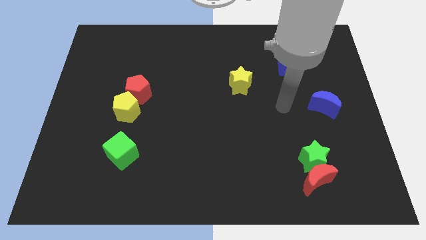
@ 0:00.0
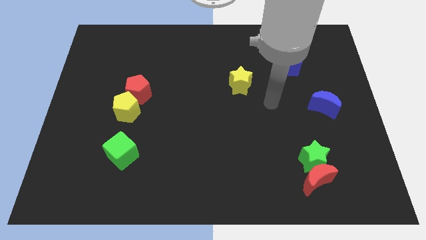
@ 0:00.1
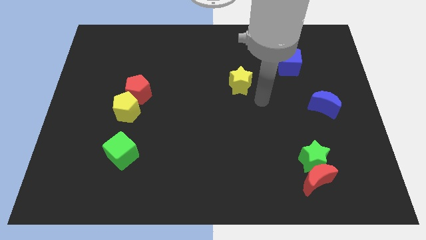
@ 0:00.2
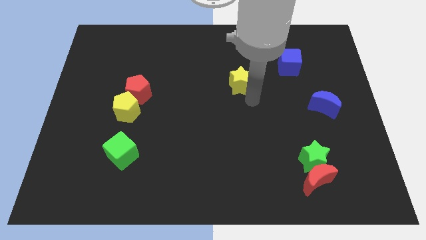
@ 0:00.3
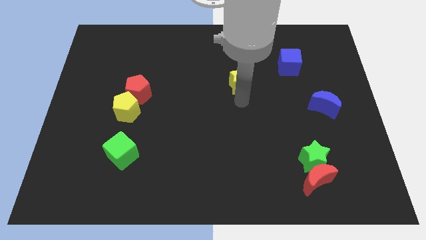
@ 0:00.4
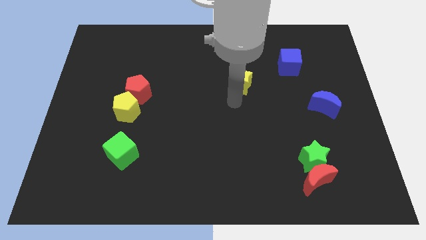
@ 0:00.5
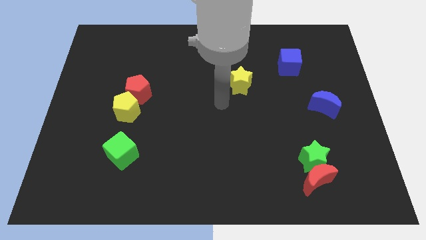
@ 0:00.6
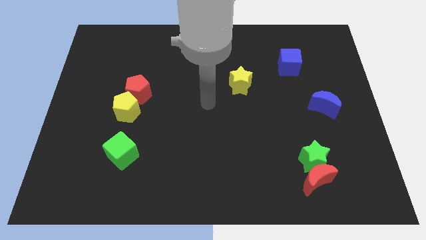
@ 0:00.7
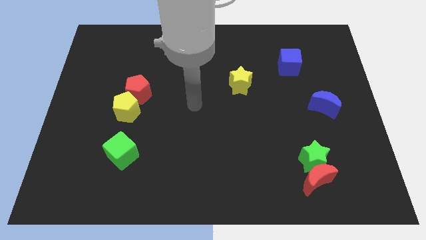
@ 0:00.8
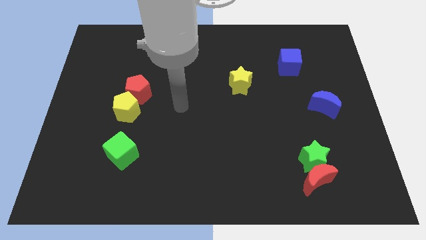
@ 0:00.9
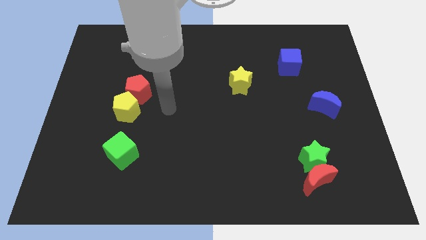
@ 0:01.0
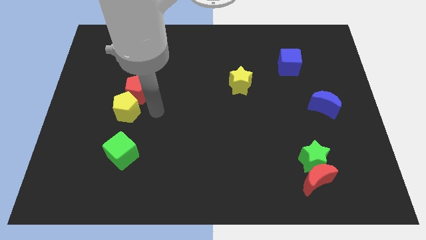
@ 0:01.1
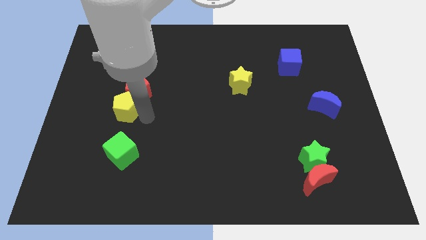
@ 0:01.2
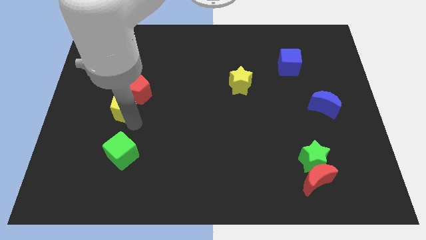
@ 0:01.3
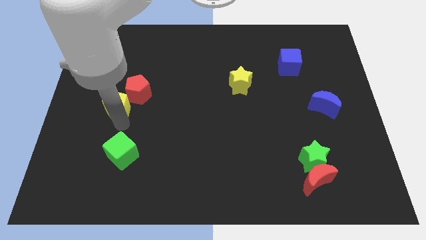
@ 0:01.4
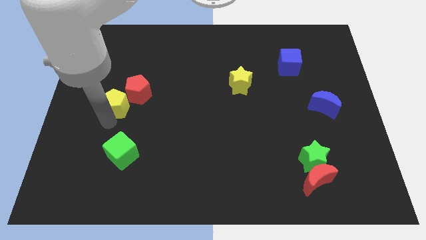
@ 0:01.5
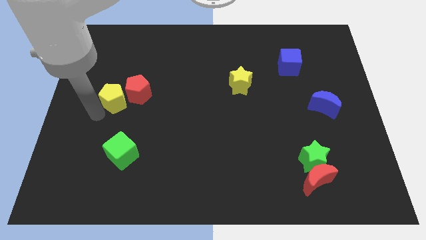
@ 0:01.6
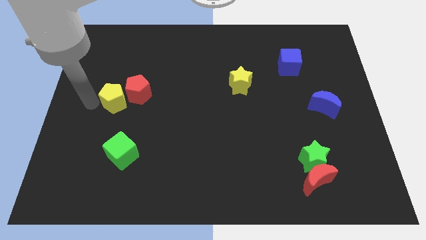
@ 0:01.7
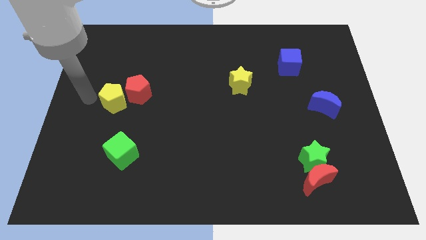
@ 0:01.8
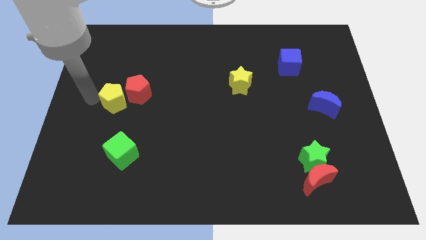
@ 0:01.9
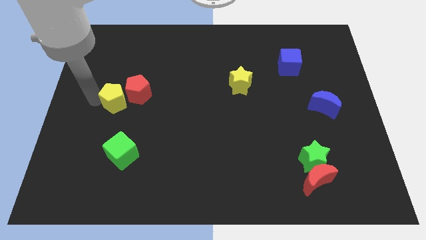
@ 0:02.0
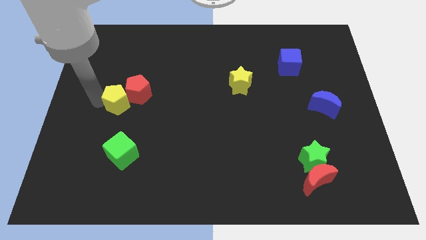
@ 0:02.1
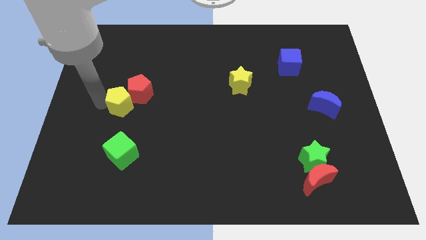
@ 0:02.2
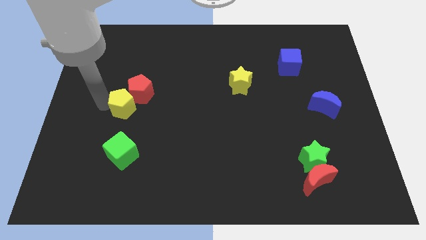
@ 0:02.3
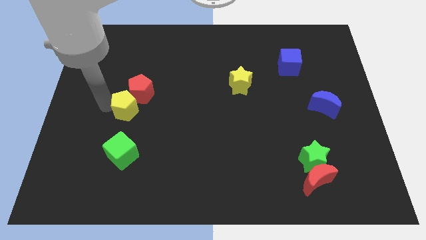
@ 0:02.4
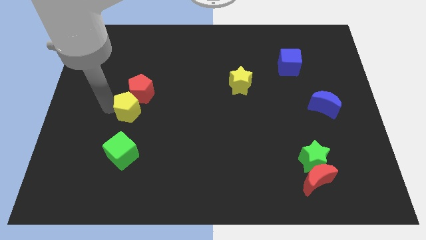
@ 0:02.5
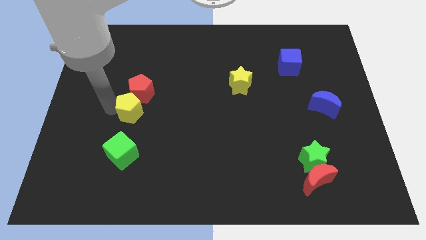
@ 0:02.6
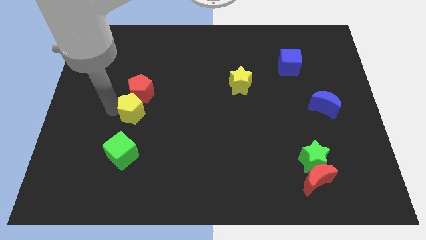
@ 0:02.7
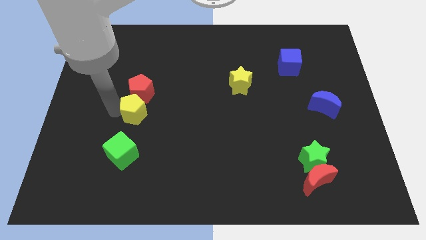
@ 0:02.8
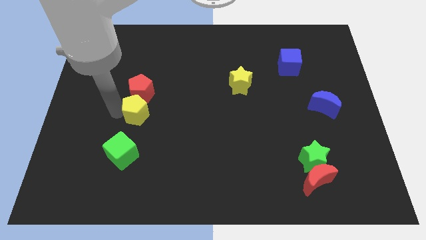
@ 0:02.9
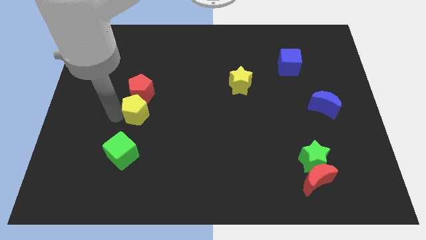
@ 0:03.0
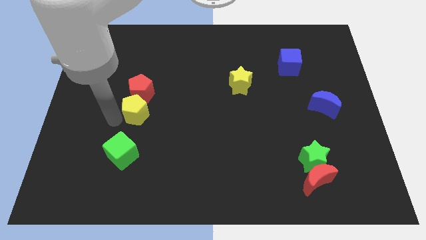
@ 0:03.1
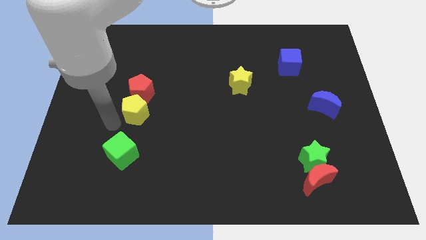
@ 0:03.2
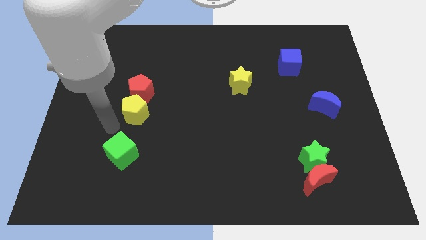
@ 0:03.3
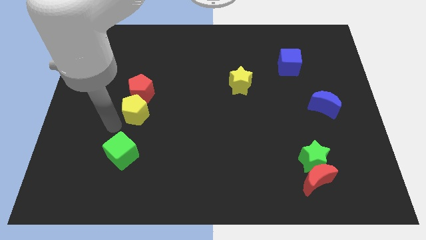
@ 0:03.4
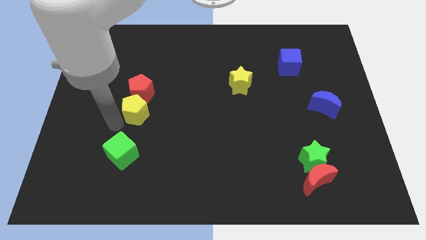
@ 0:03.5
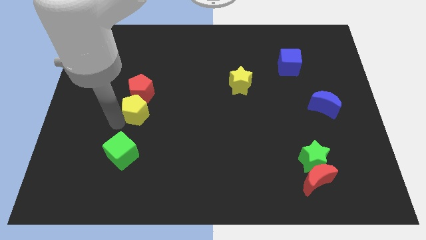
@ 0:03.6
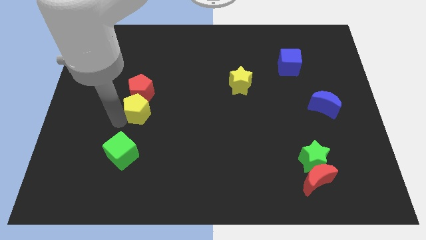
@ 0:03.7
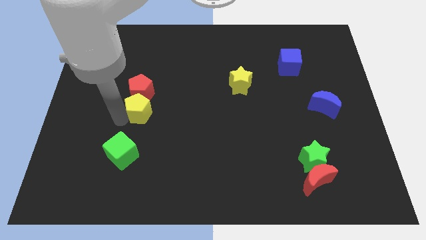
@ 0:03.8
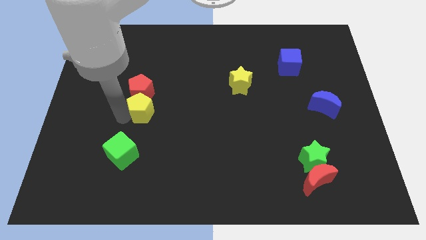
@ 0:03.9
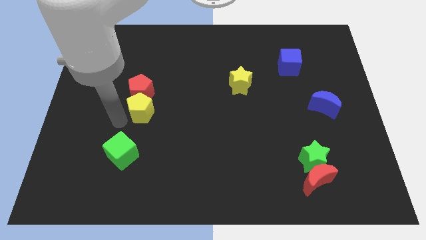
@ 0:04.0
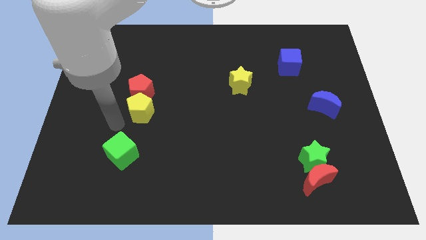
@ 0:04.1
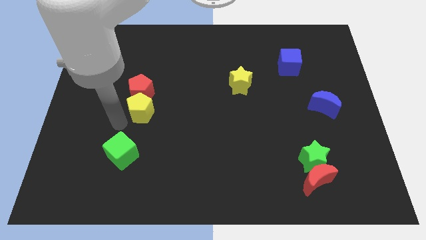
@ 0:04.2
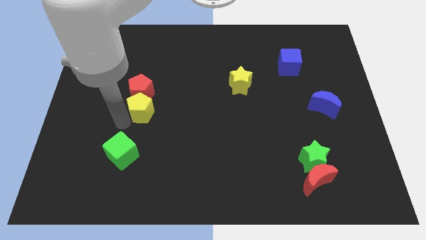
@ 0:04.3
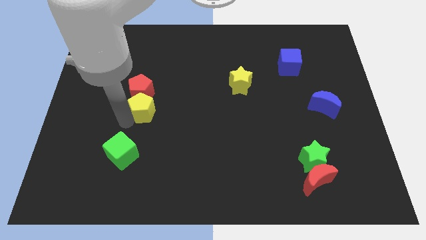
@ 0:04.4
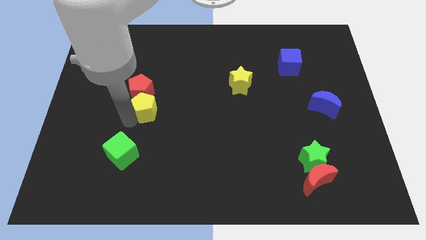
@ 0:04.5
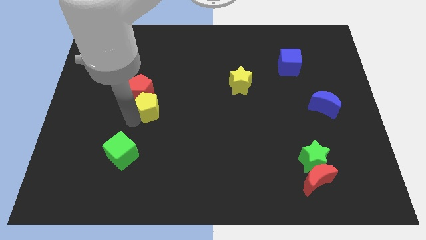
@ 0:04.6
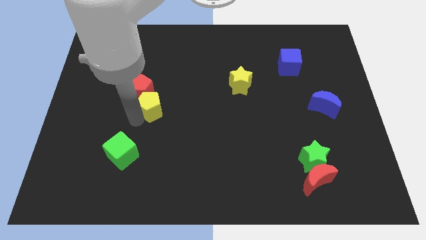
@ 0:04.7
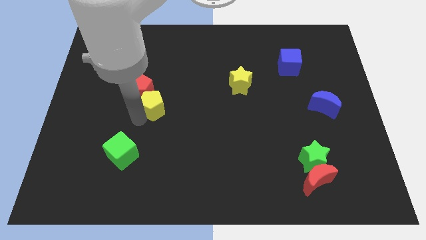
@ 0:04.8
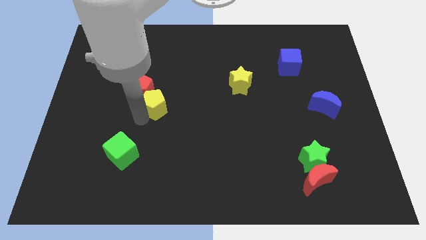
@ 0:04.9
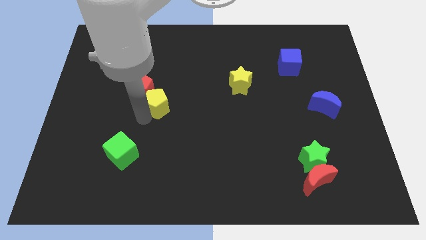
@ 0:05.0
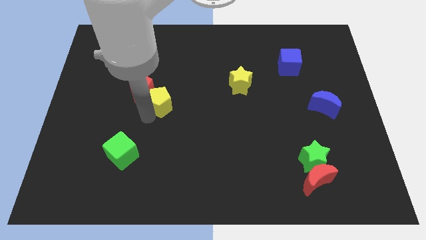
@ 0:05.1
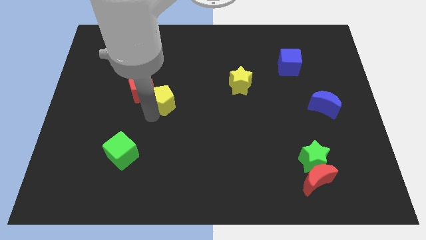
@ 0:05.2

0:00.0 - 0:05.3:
slightly slide the yellow pentagon diagonally upwards and right

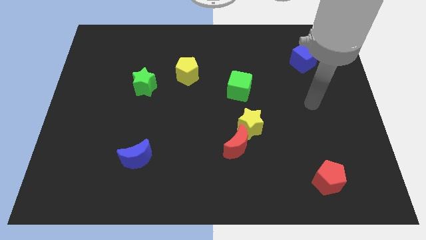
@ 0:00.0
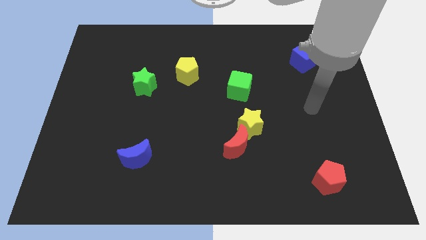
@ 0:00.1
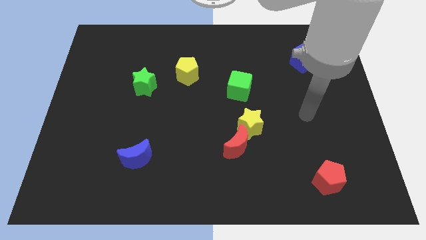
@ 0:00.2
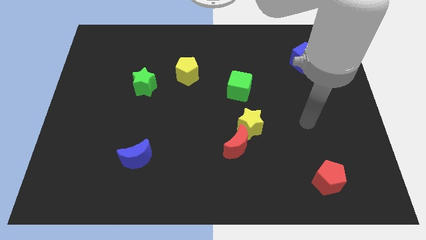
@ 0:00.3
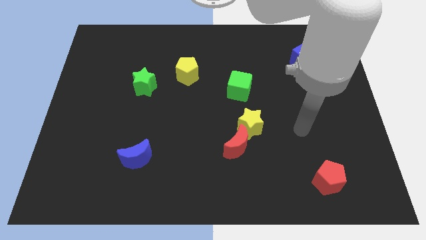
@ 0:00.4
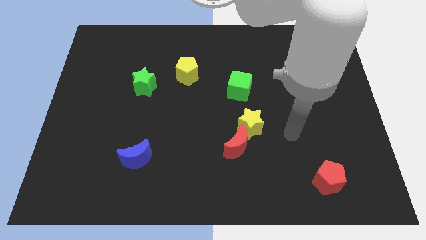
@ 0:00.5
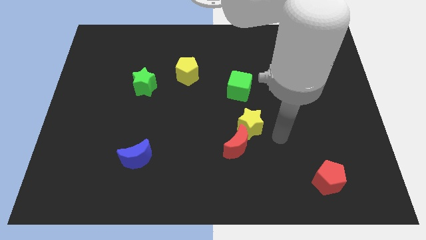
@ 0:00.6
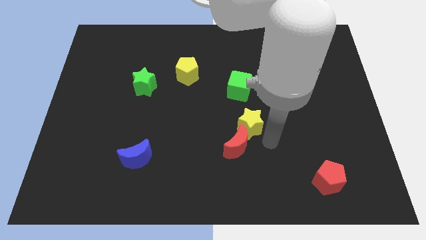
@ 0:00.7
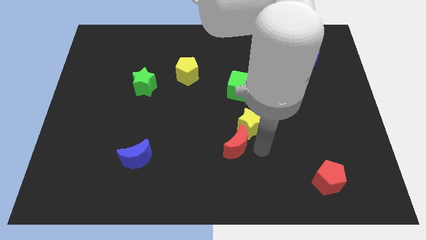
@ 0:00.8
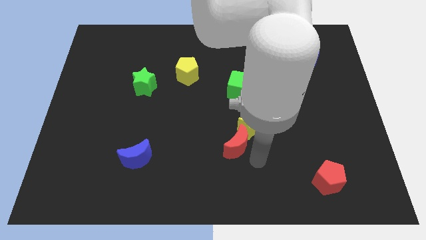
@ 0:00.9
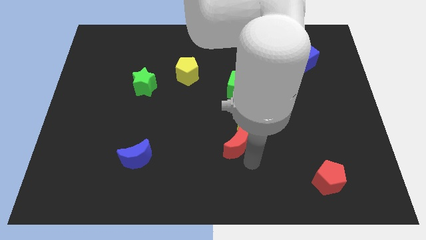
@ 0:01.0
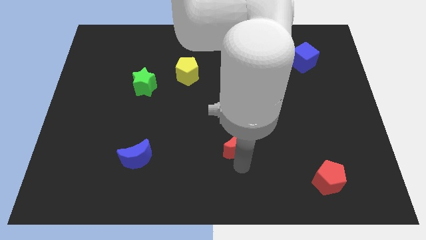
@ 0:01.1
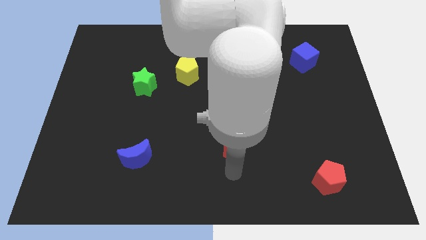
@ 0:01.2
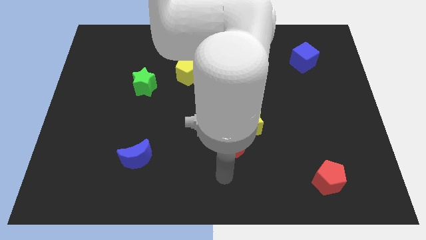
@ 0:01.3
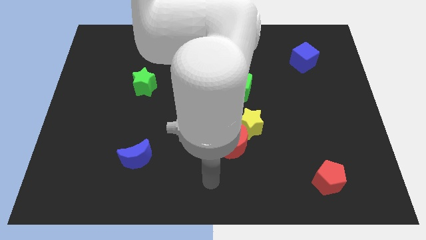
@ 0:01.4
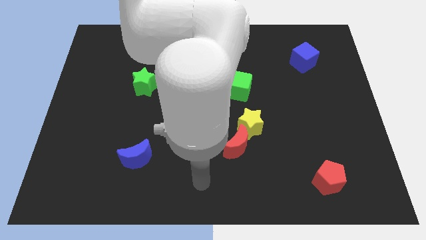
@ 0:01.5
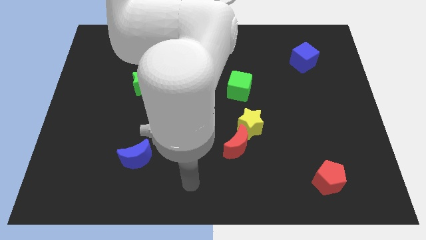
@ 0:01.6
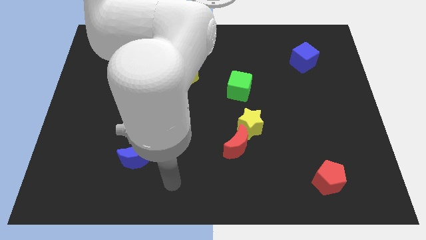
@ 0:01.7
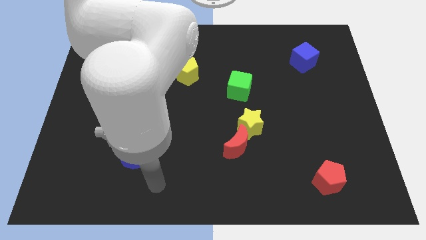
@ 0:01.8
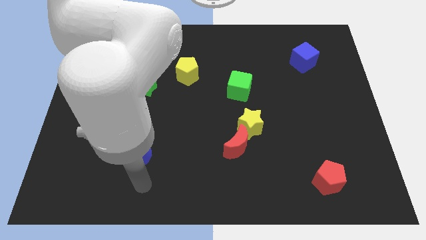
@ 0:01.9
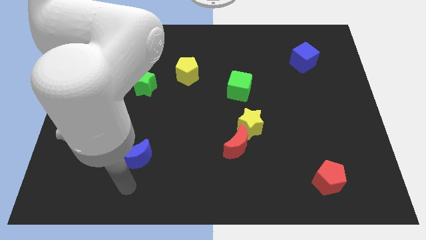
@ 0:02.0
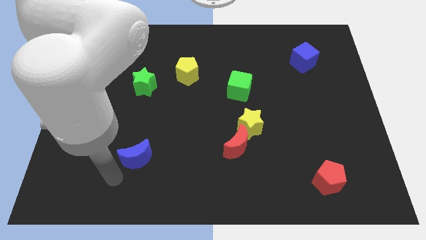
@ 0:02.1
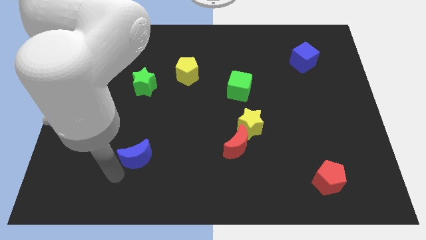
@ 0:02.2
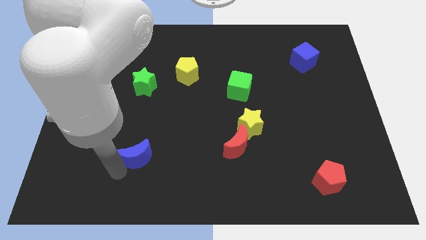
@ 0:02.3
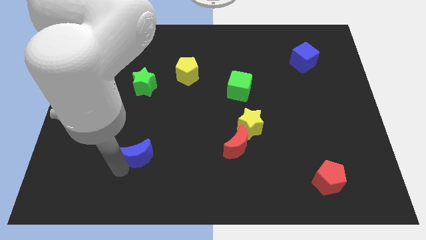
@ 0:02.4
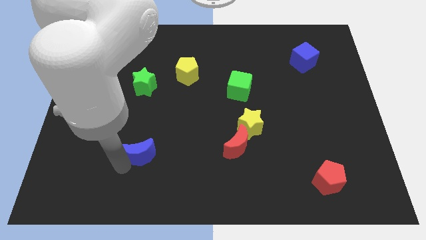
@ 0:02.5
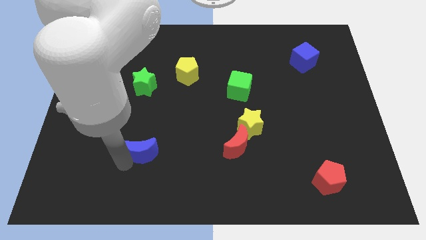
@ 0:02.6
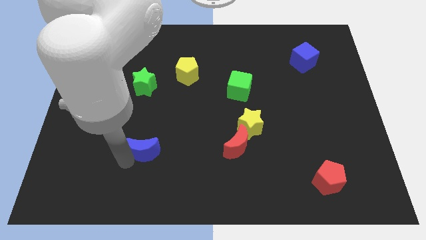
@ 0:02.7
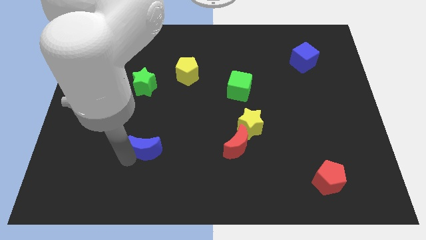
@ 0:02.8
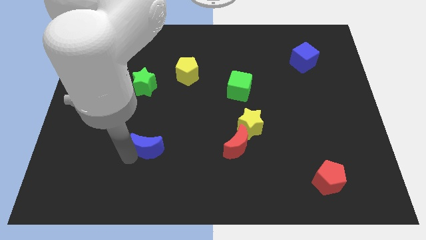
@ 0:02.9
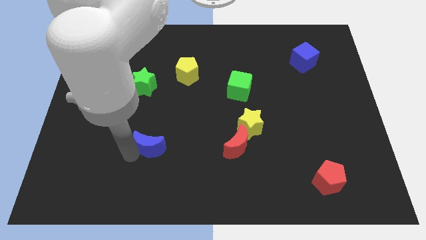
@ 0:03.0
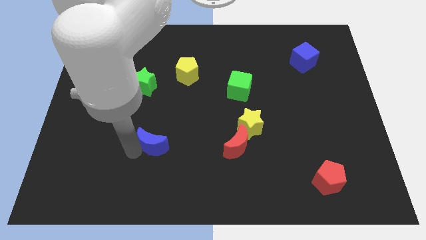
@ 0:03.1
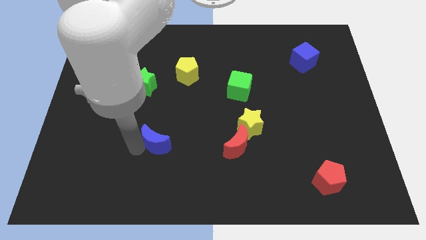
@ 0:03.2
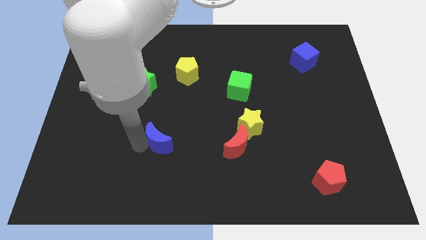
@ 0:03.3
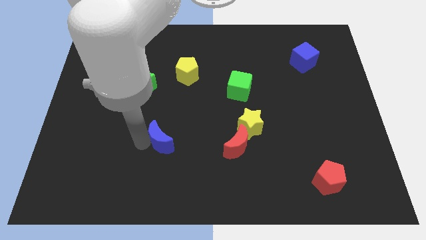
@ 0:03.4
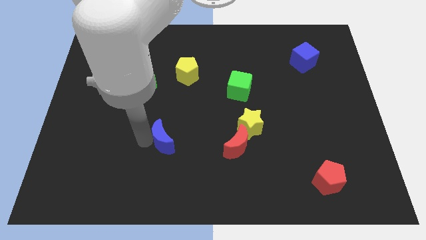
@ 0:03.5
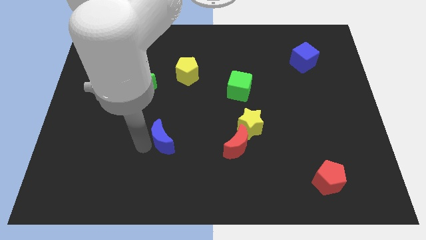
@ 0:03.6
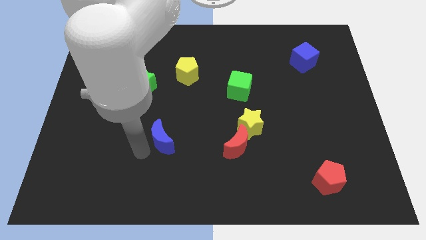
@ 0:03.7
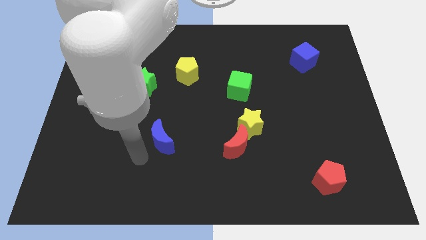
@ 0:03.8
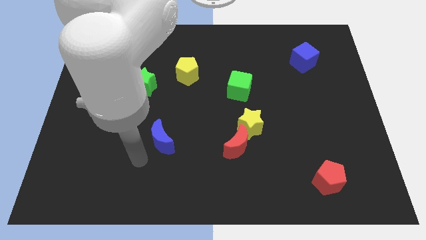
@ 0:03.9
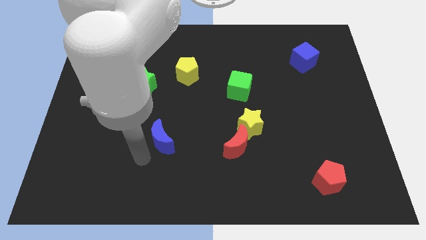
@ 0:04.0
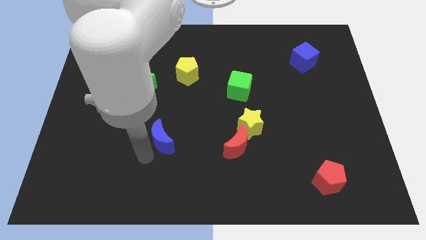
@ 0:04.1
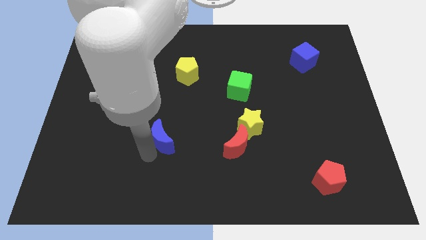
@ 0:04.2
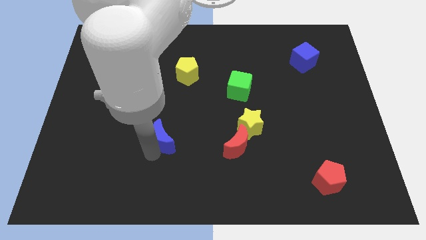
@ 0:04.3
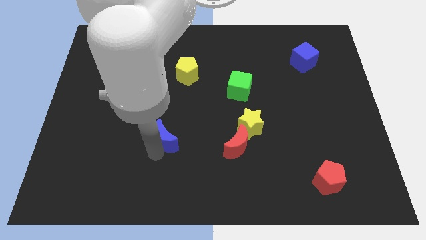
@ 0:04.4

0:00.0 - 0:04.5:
push the blue moon a bit diagonally up and right
